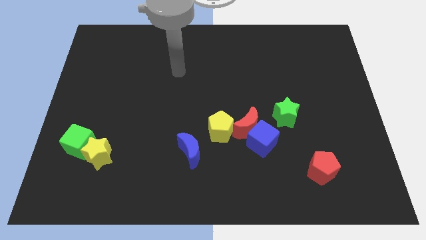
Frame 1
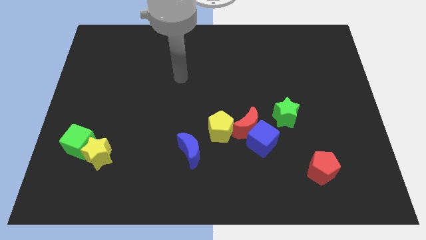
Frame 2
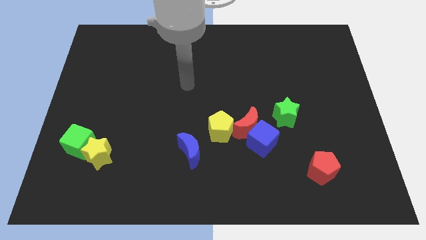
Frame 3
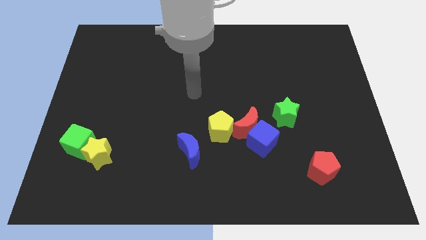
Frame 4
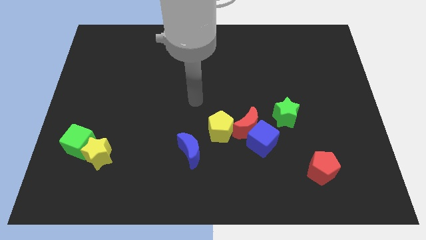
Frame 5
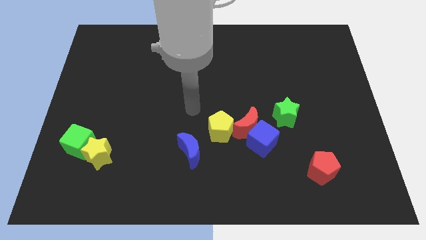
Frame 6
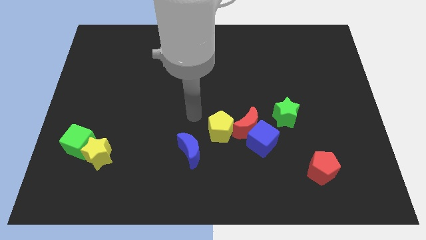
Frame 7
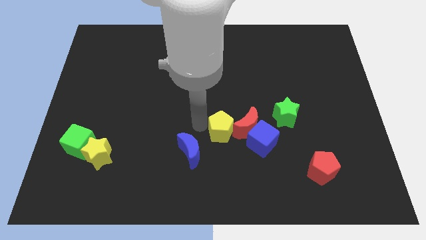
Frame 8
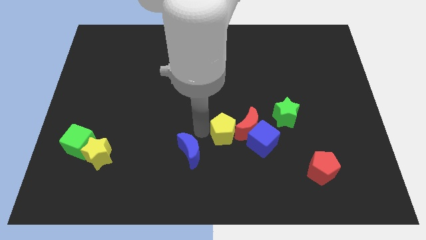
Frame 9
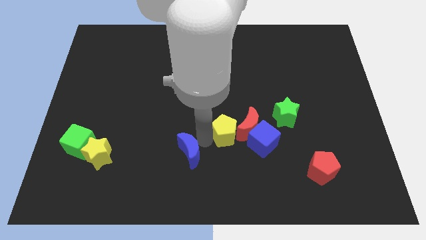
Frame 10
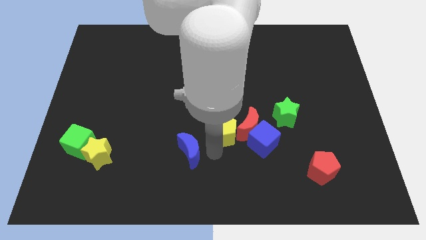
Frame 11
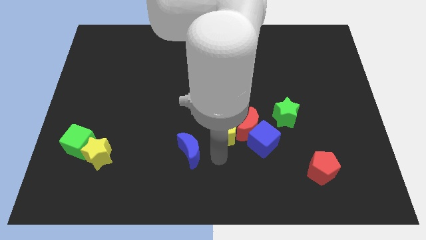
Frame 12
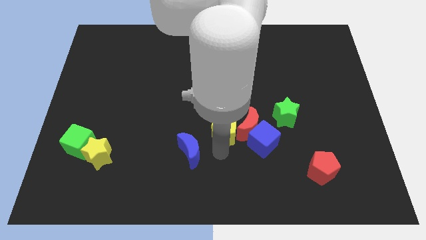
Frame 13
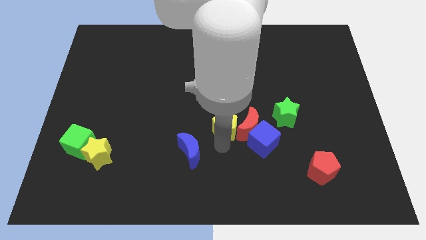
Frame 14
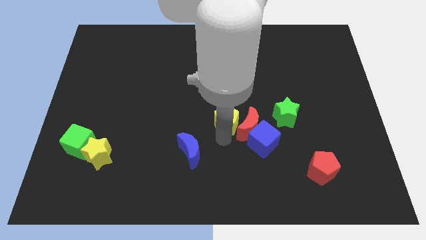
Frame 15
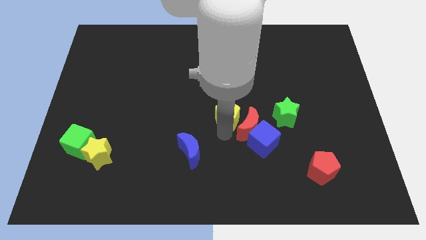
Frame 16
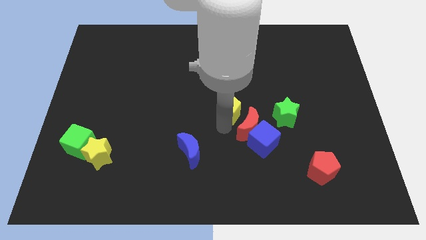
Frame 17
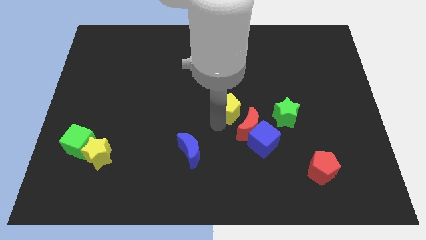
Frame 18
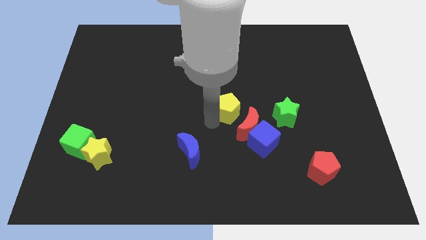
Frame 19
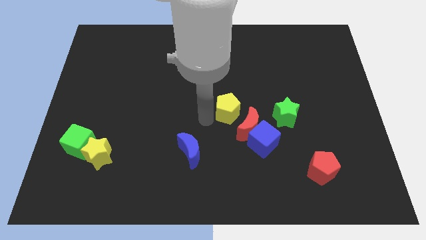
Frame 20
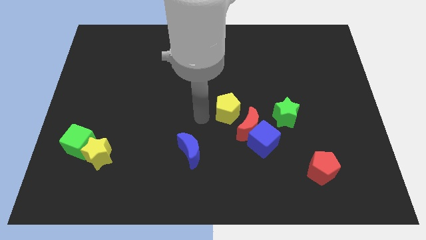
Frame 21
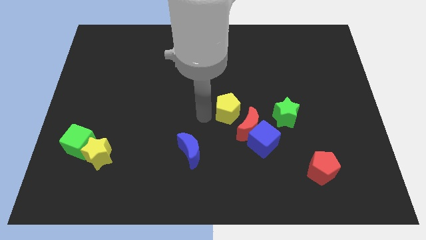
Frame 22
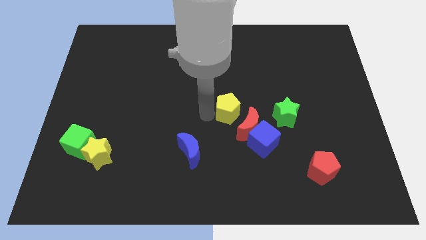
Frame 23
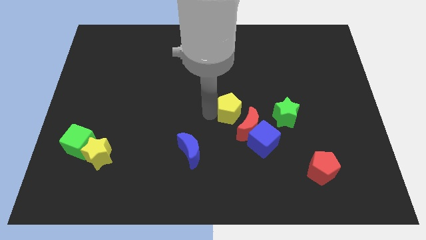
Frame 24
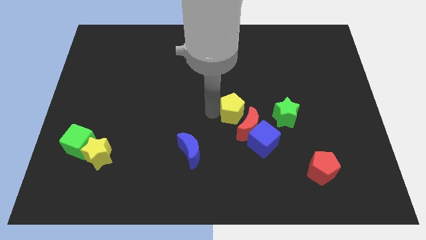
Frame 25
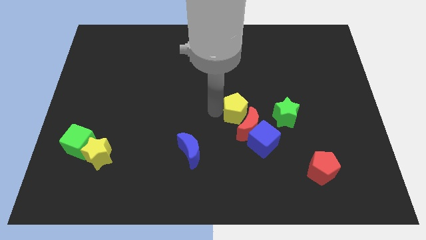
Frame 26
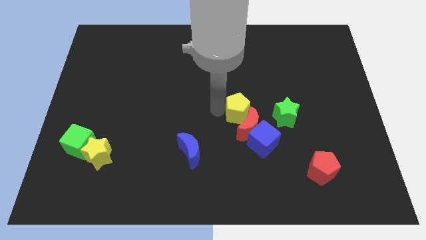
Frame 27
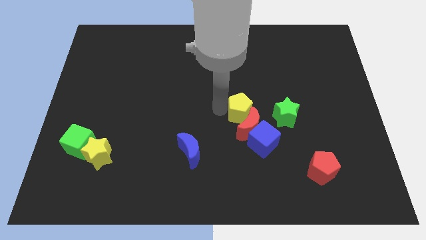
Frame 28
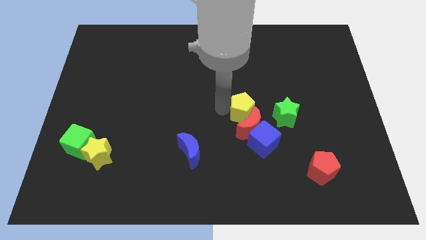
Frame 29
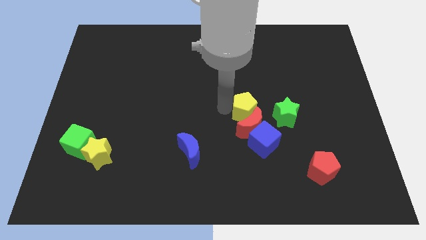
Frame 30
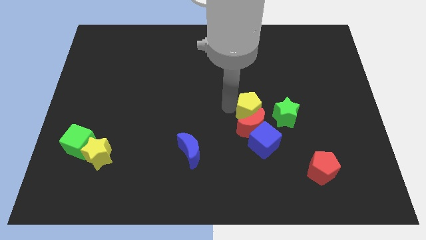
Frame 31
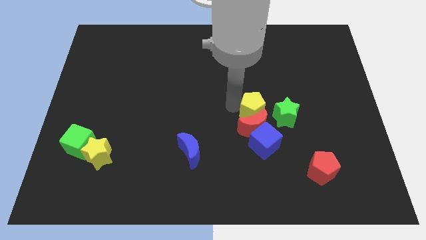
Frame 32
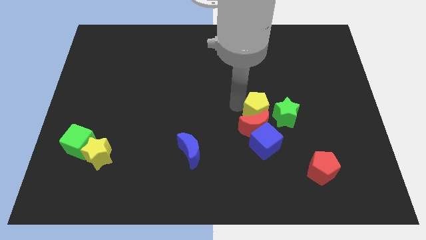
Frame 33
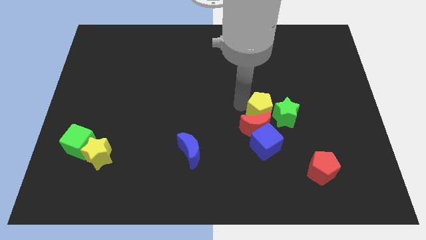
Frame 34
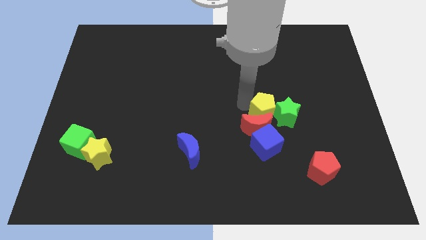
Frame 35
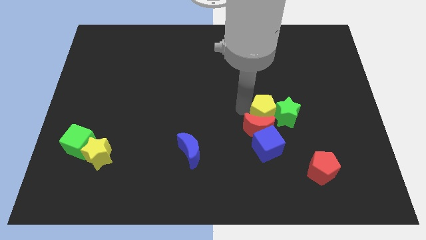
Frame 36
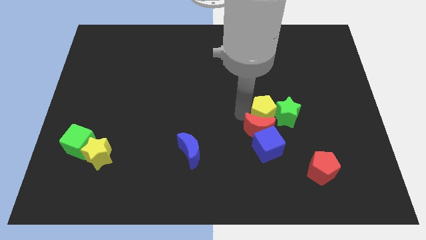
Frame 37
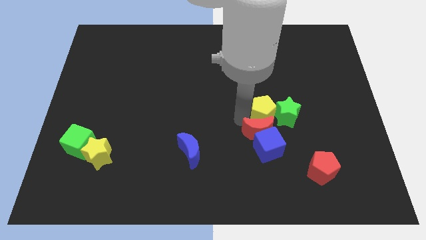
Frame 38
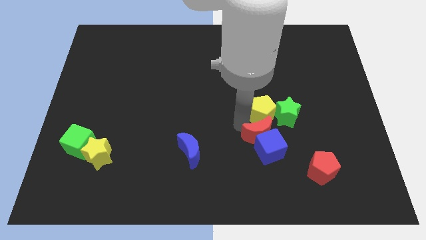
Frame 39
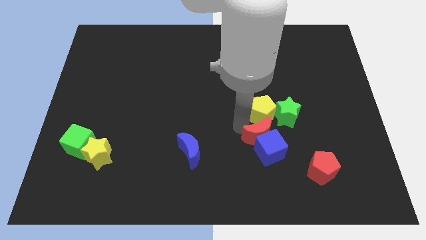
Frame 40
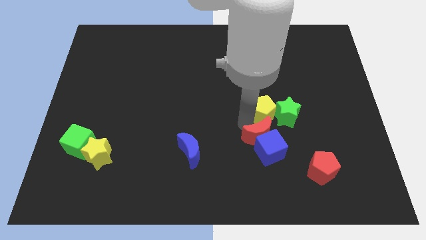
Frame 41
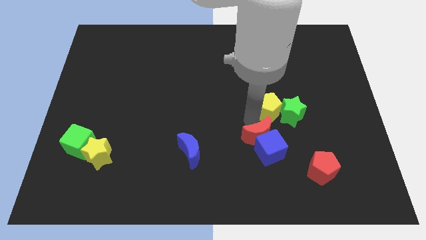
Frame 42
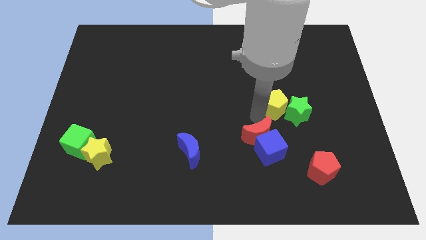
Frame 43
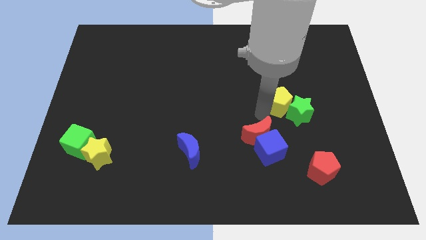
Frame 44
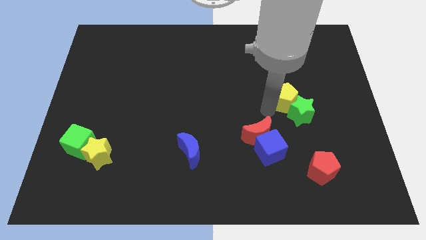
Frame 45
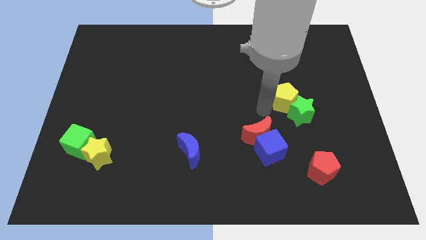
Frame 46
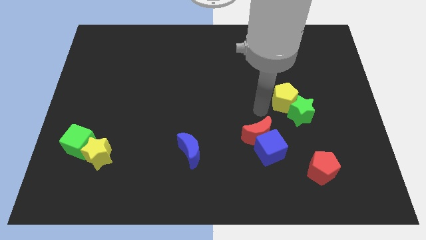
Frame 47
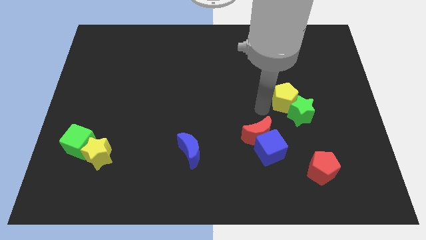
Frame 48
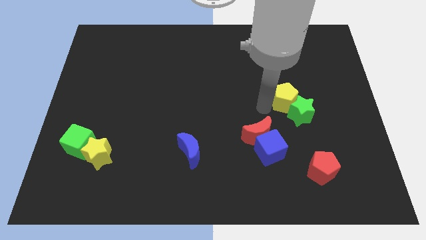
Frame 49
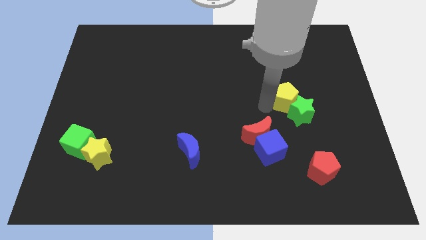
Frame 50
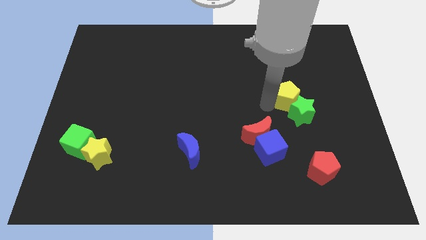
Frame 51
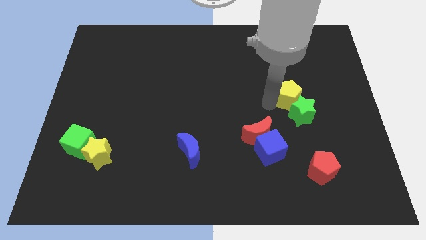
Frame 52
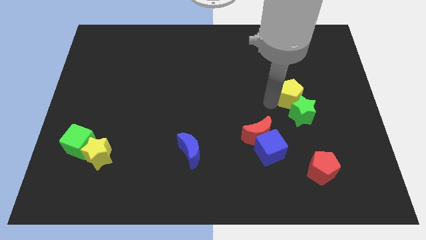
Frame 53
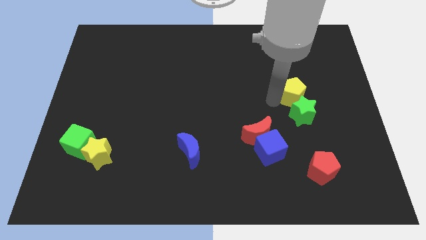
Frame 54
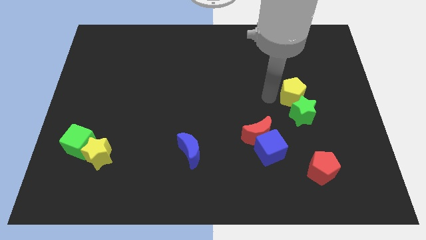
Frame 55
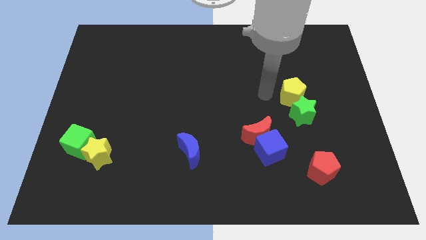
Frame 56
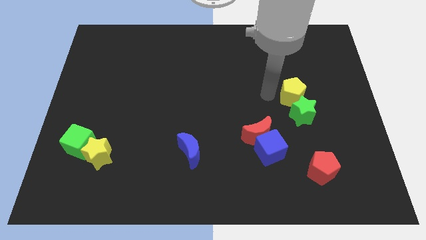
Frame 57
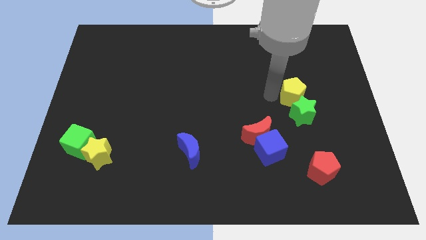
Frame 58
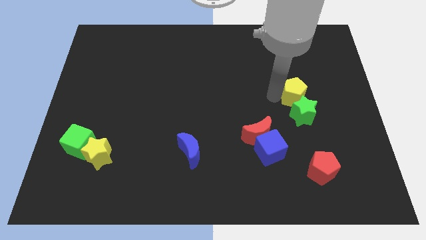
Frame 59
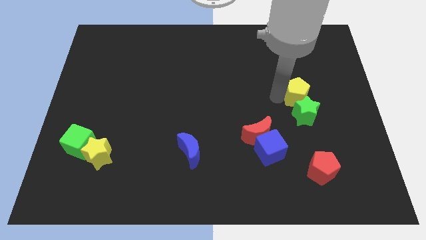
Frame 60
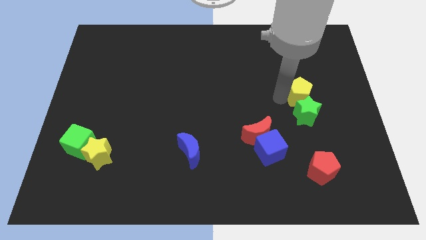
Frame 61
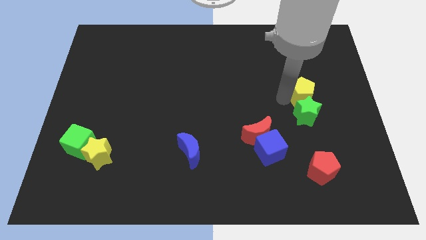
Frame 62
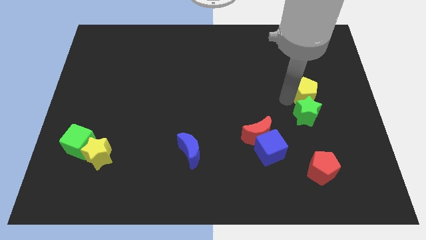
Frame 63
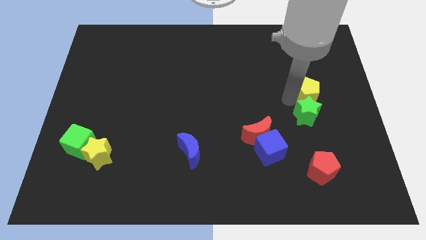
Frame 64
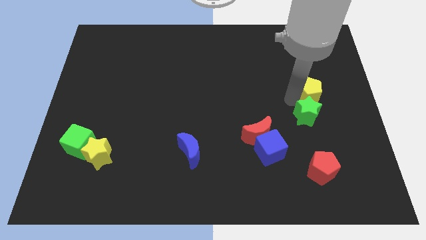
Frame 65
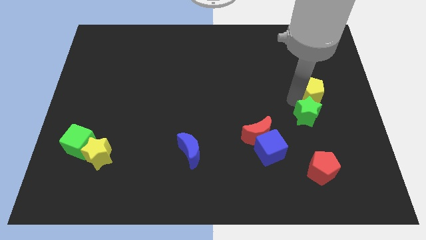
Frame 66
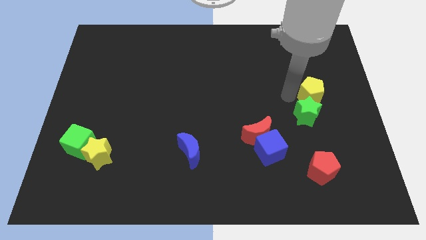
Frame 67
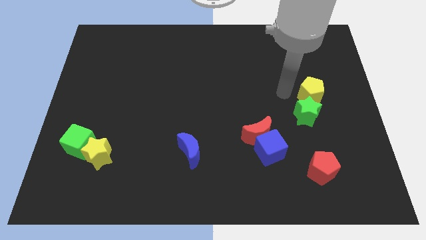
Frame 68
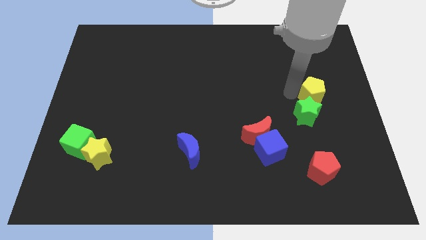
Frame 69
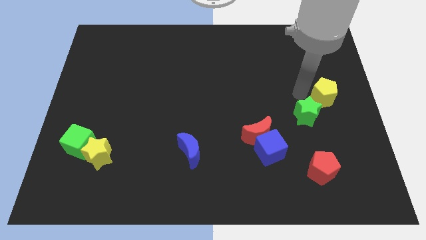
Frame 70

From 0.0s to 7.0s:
push the yellow pentagon to the right side
